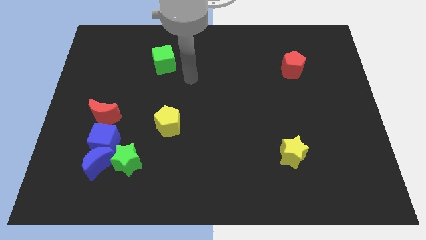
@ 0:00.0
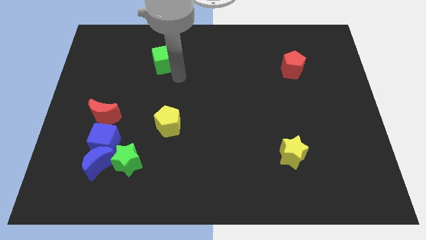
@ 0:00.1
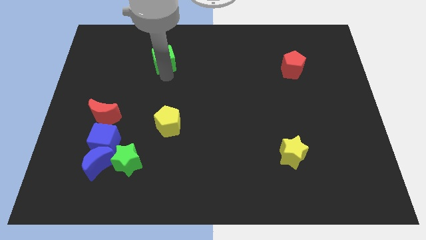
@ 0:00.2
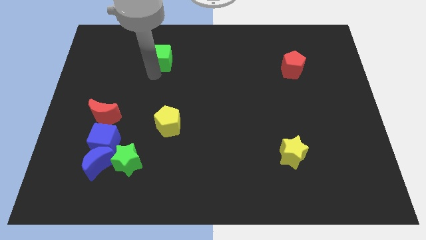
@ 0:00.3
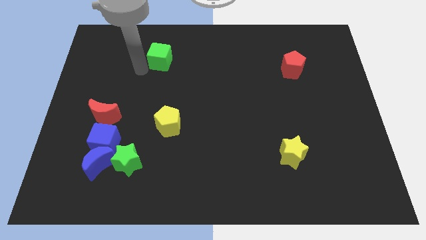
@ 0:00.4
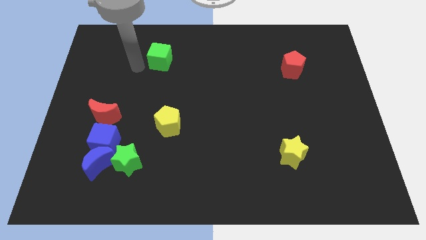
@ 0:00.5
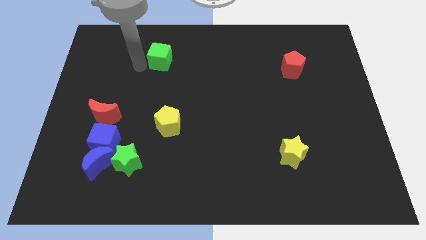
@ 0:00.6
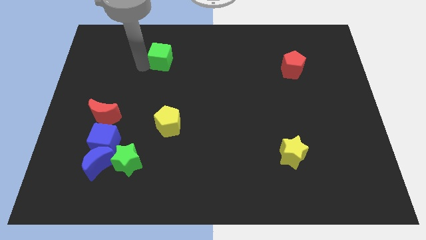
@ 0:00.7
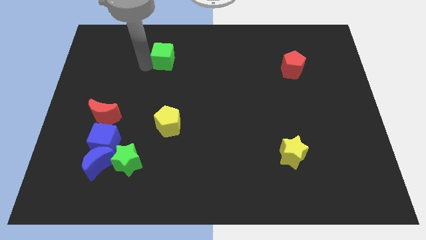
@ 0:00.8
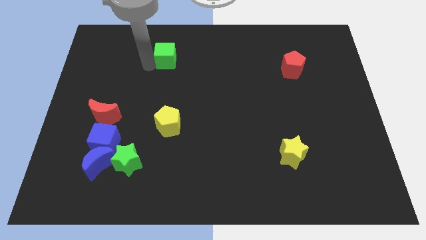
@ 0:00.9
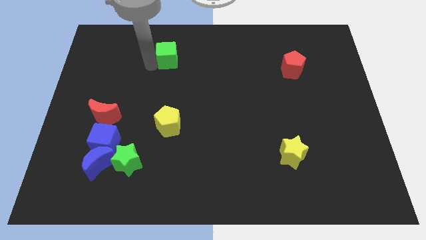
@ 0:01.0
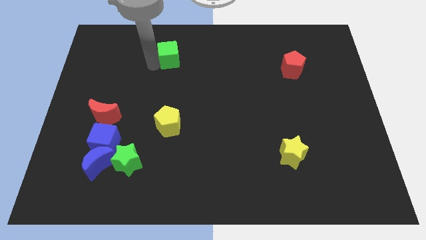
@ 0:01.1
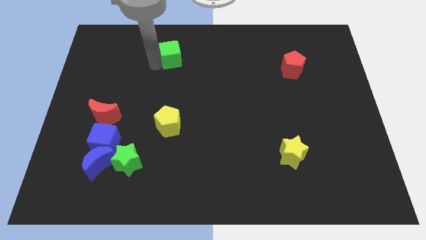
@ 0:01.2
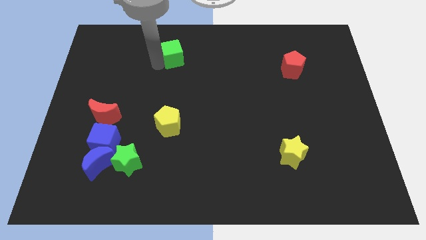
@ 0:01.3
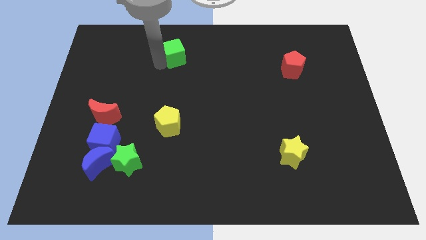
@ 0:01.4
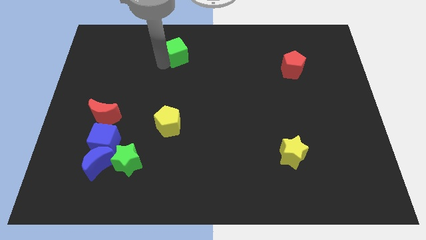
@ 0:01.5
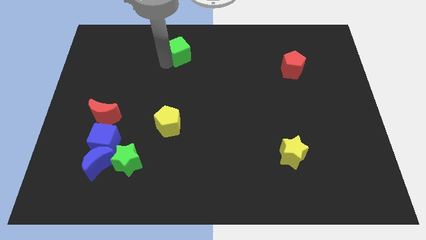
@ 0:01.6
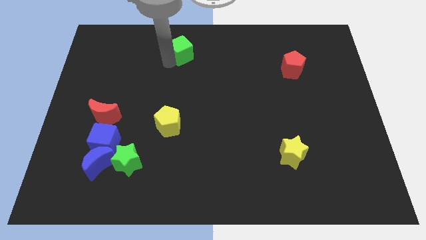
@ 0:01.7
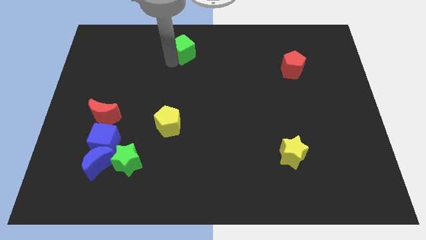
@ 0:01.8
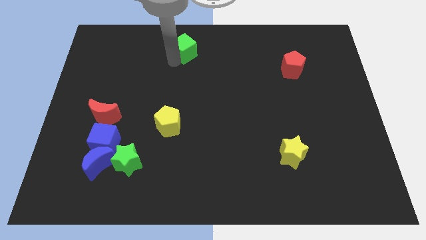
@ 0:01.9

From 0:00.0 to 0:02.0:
slide the green cube to the top side

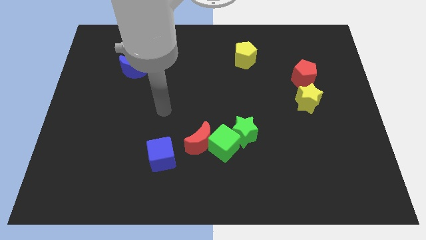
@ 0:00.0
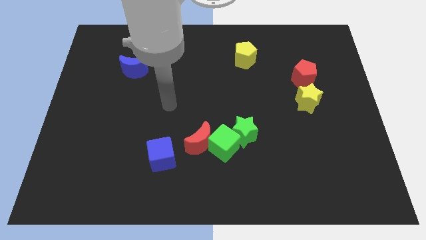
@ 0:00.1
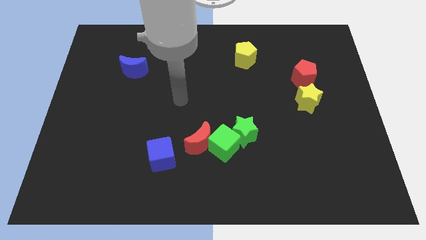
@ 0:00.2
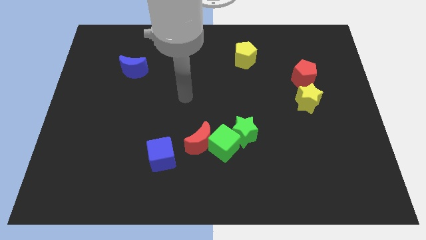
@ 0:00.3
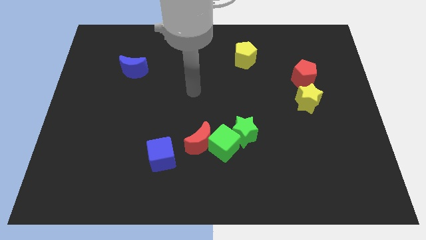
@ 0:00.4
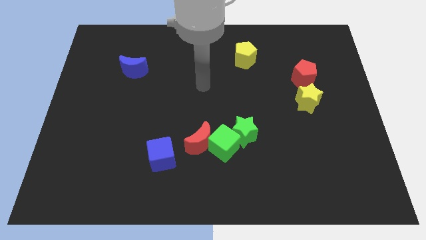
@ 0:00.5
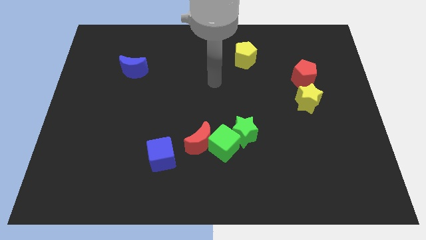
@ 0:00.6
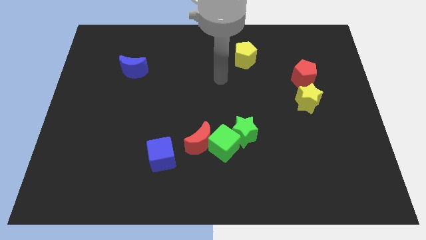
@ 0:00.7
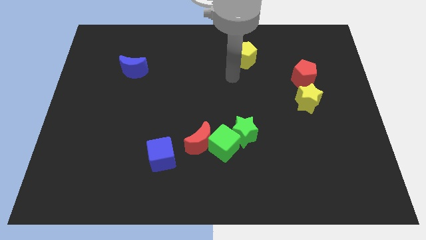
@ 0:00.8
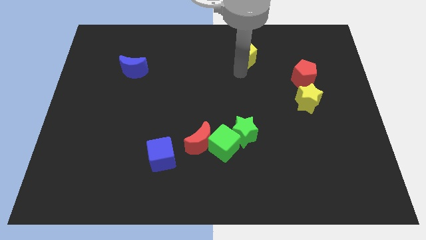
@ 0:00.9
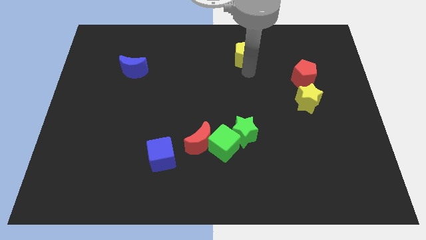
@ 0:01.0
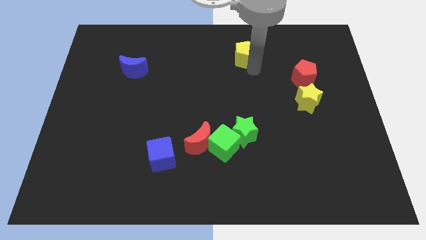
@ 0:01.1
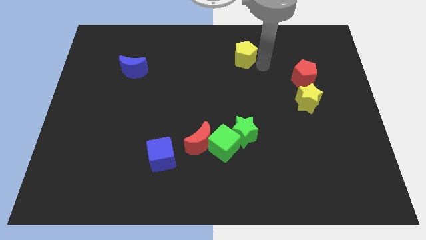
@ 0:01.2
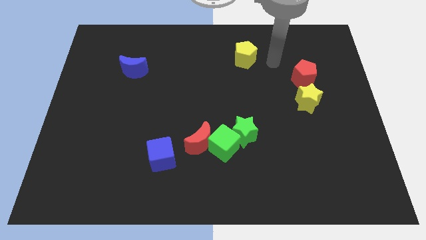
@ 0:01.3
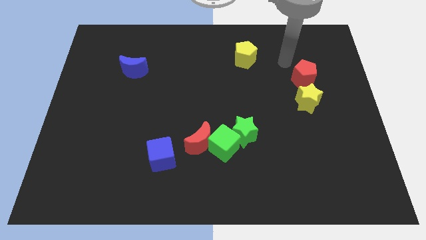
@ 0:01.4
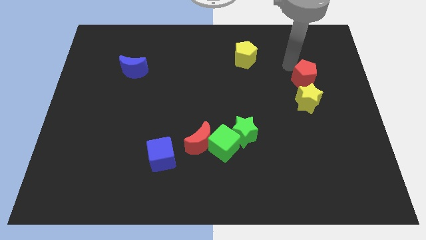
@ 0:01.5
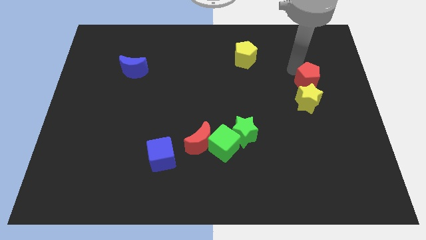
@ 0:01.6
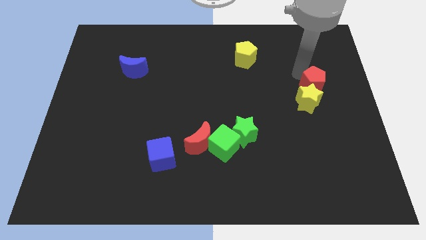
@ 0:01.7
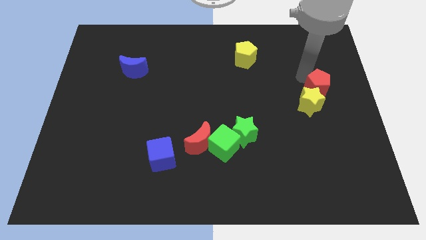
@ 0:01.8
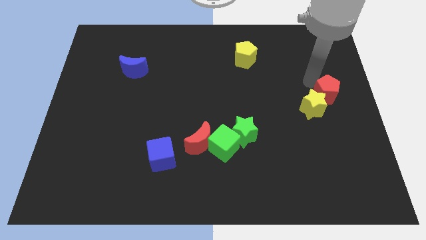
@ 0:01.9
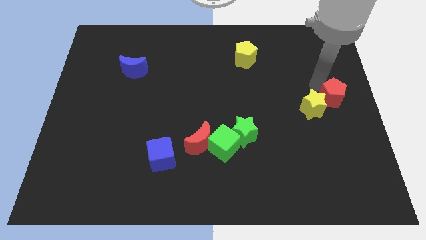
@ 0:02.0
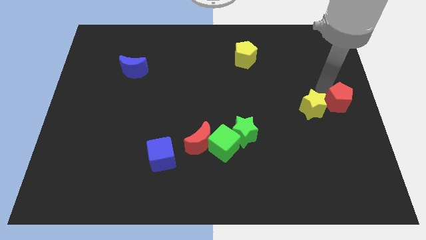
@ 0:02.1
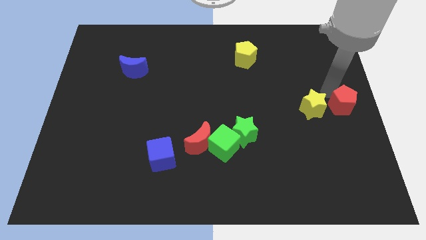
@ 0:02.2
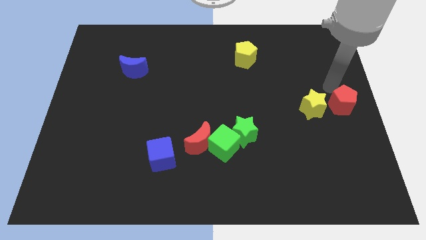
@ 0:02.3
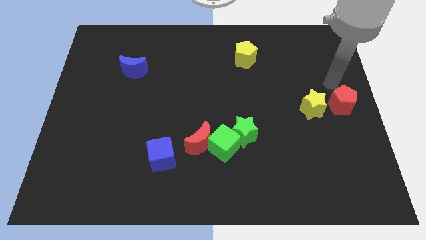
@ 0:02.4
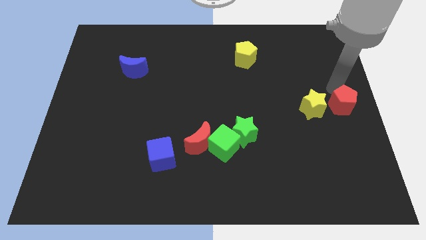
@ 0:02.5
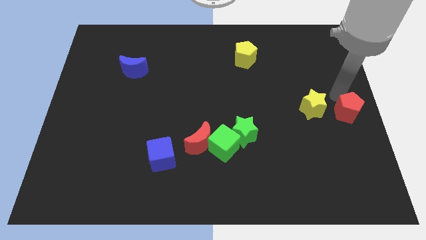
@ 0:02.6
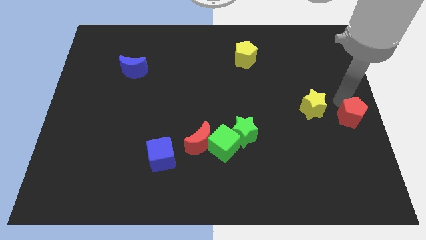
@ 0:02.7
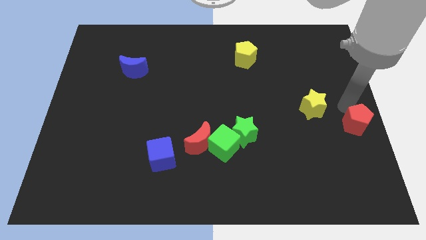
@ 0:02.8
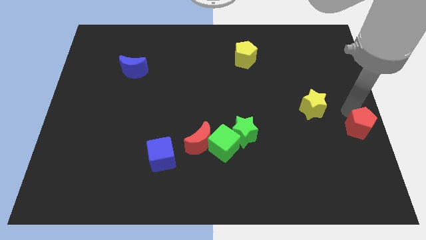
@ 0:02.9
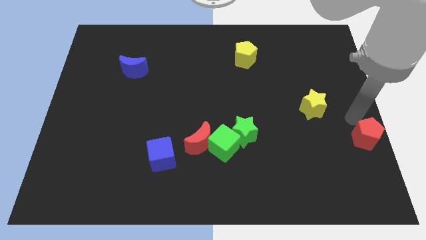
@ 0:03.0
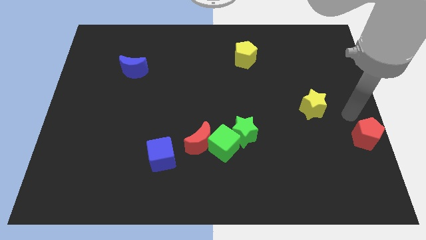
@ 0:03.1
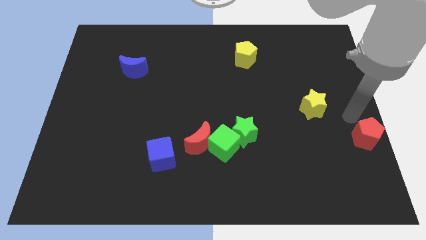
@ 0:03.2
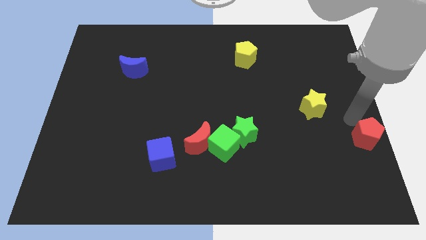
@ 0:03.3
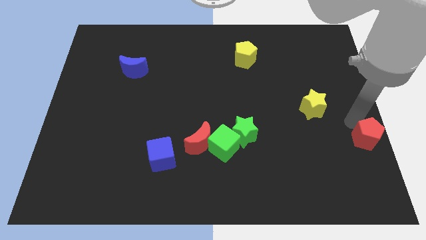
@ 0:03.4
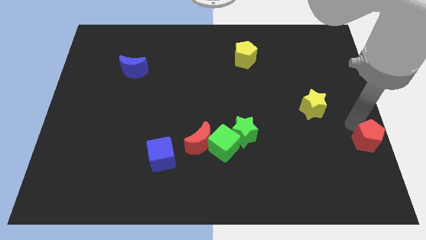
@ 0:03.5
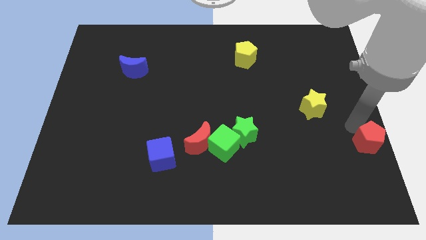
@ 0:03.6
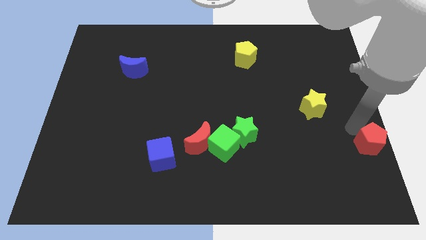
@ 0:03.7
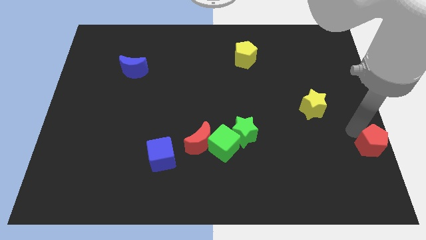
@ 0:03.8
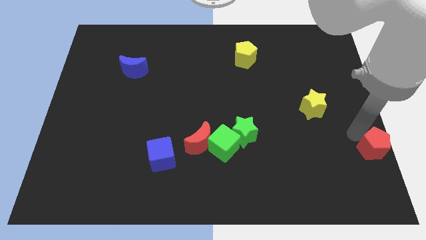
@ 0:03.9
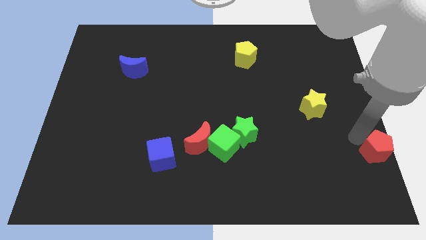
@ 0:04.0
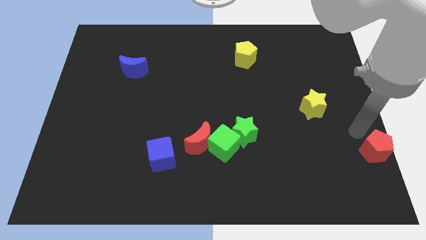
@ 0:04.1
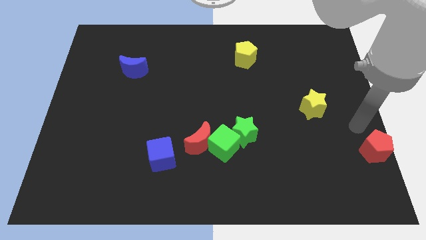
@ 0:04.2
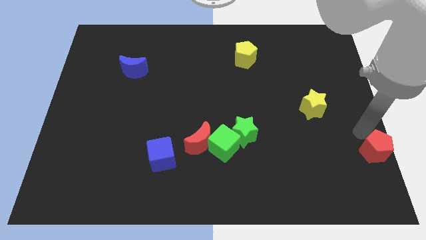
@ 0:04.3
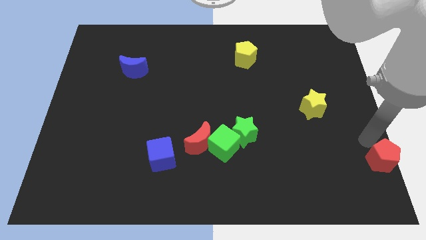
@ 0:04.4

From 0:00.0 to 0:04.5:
slide the red pentagon to the lower right corner

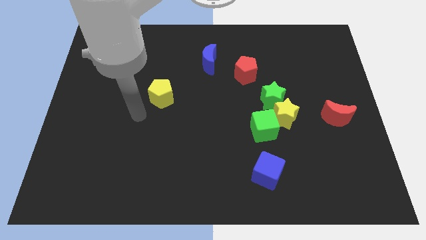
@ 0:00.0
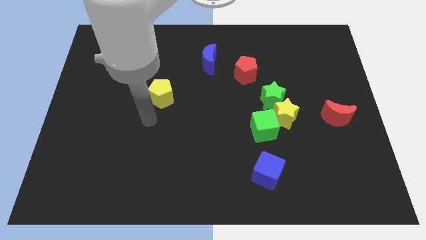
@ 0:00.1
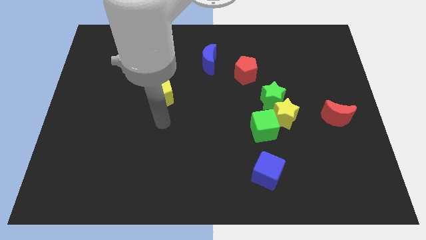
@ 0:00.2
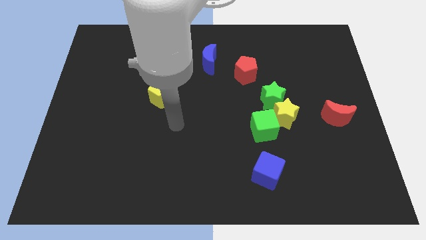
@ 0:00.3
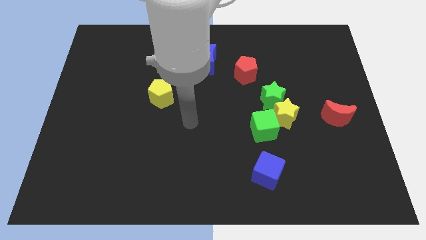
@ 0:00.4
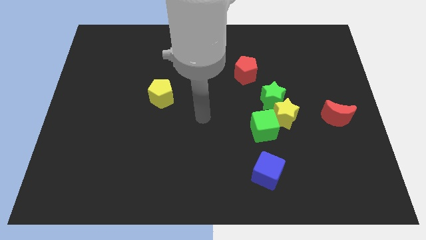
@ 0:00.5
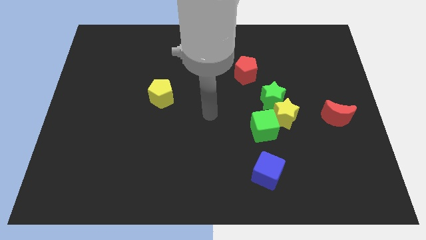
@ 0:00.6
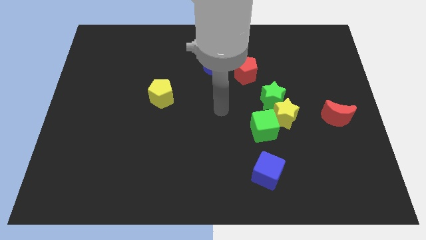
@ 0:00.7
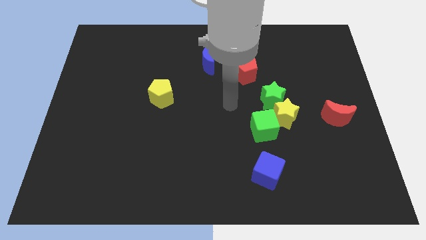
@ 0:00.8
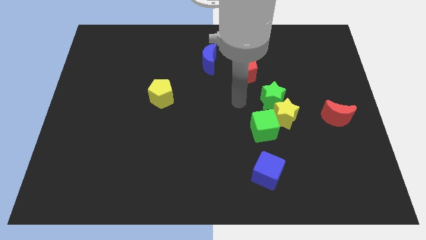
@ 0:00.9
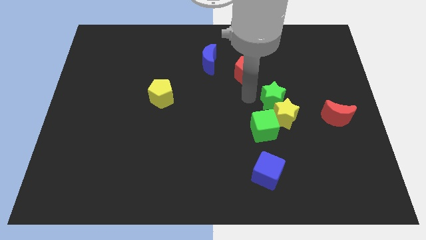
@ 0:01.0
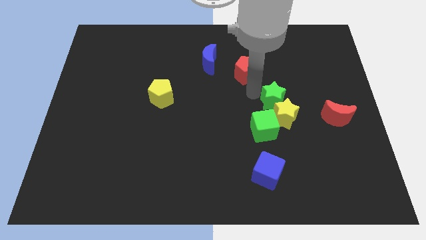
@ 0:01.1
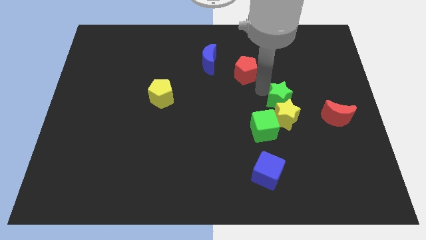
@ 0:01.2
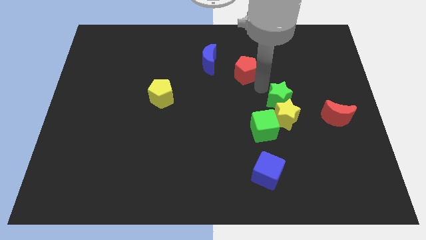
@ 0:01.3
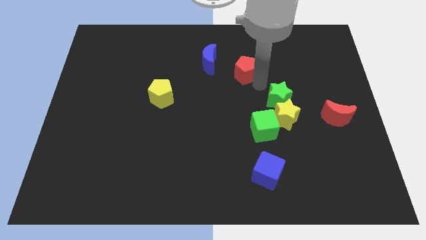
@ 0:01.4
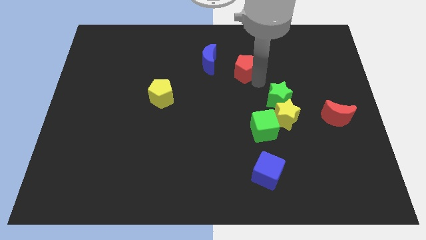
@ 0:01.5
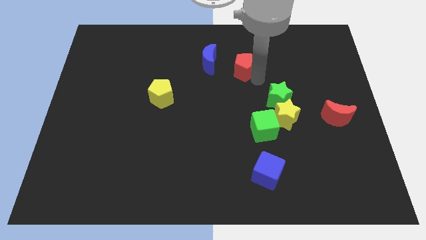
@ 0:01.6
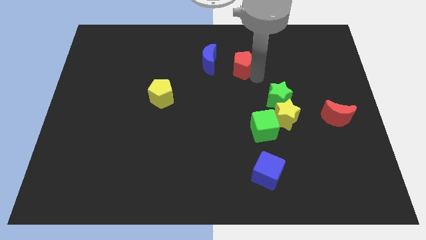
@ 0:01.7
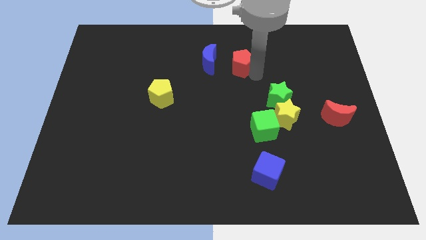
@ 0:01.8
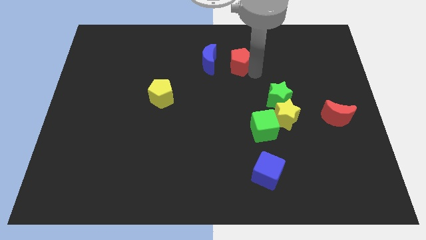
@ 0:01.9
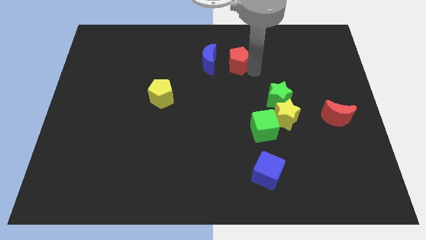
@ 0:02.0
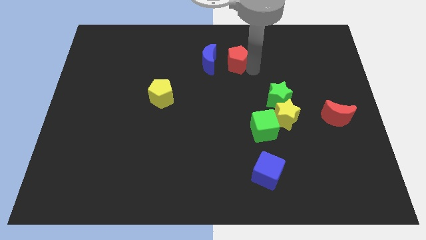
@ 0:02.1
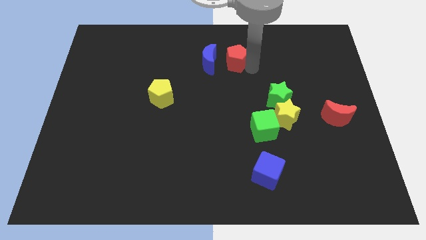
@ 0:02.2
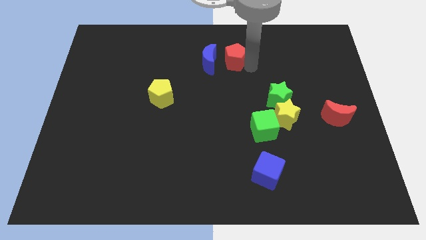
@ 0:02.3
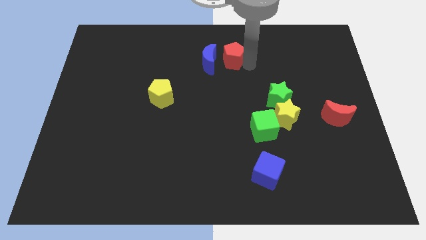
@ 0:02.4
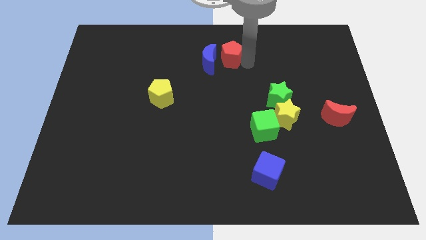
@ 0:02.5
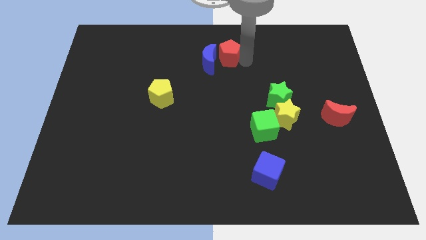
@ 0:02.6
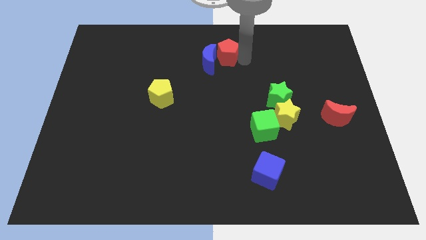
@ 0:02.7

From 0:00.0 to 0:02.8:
slide the red pentagon to the top side
